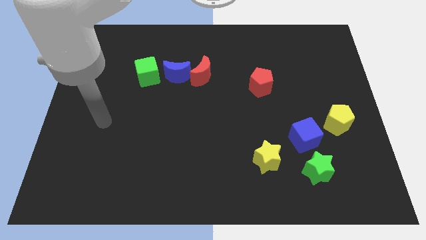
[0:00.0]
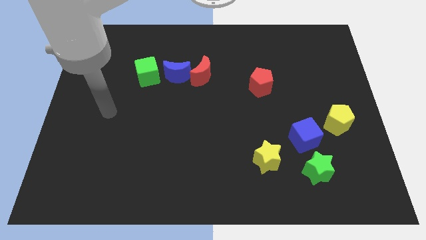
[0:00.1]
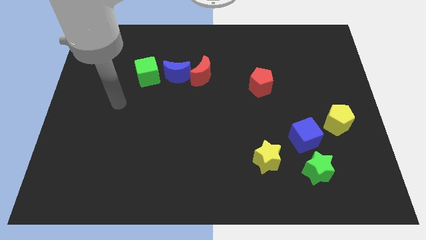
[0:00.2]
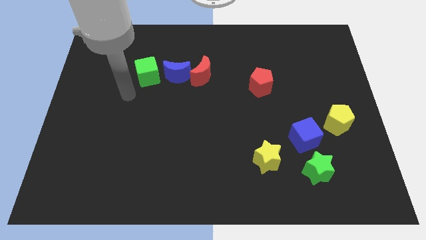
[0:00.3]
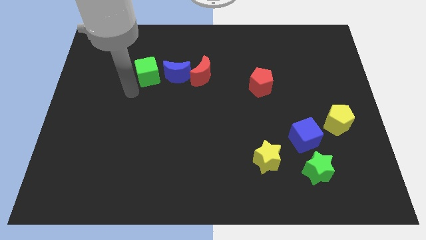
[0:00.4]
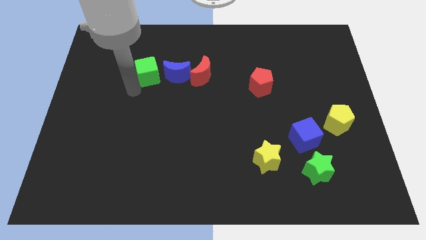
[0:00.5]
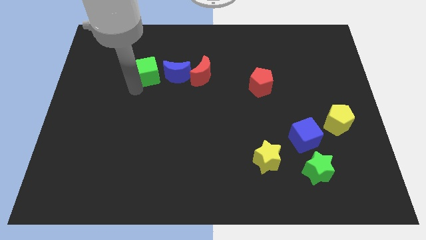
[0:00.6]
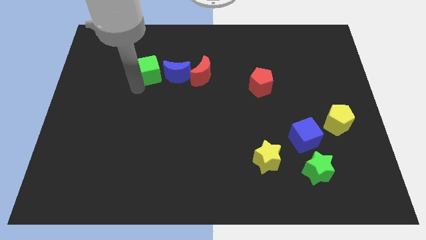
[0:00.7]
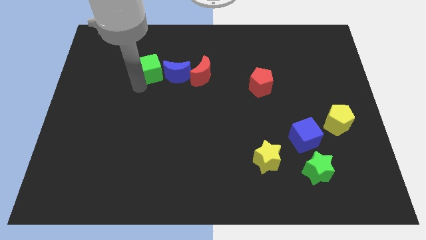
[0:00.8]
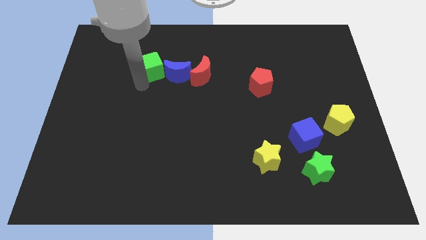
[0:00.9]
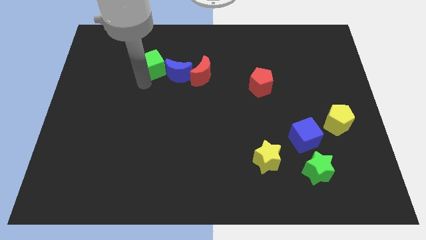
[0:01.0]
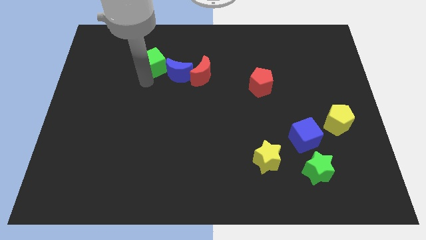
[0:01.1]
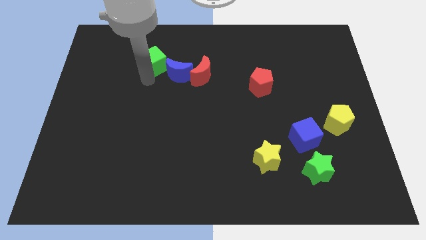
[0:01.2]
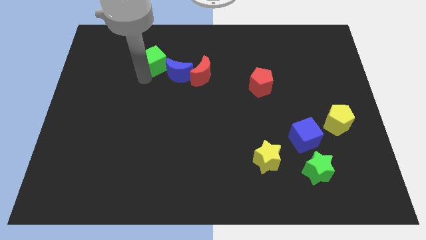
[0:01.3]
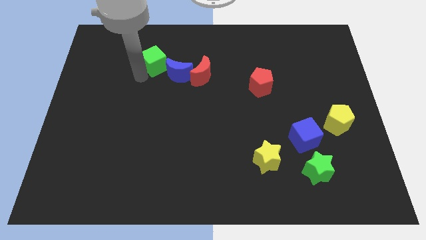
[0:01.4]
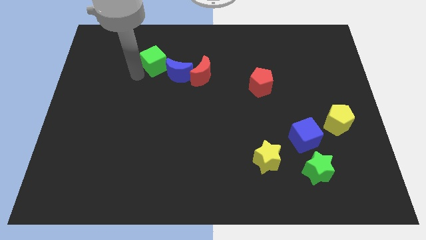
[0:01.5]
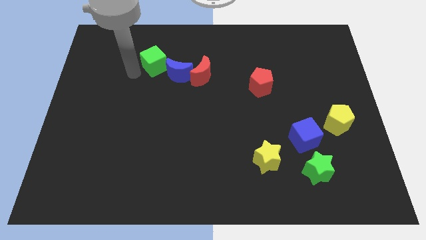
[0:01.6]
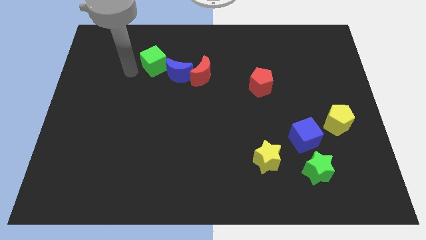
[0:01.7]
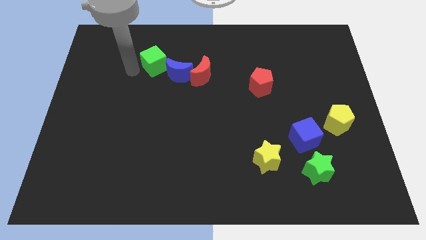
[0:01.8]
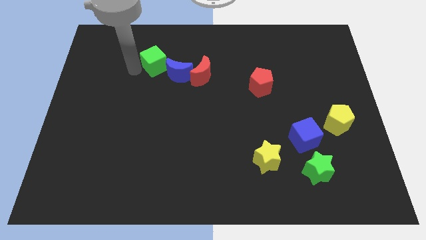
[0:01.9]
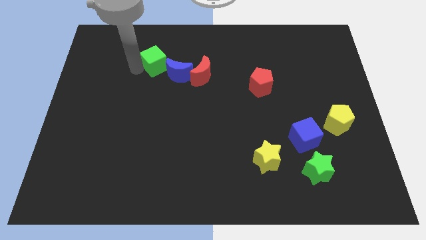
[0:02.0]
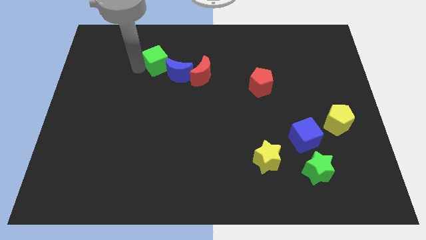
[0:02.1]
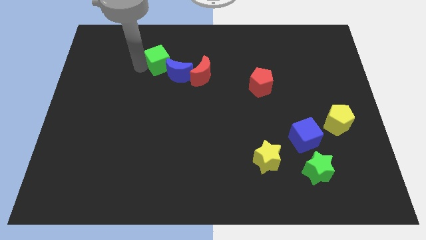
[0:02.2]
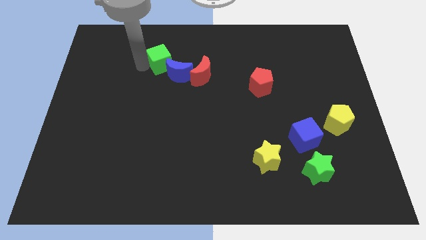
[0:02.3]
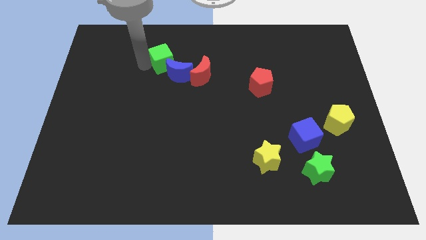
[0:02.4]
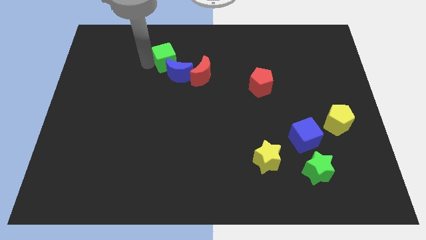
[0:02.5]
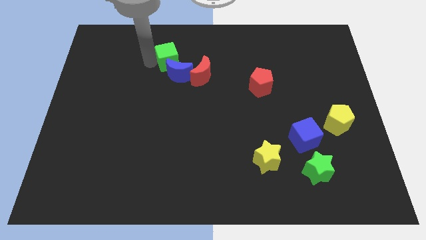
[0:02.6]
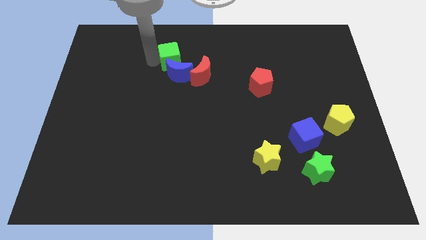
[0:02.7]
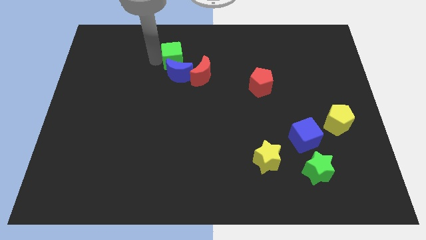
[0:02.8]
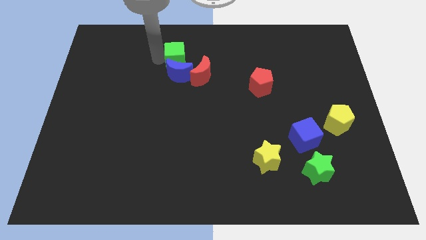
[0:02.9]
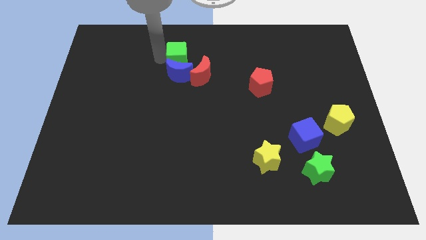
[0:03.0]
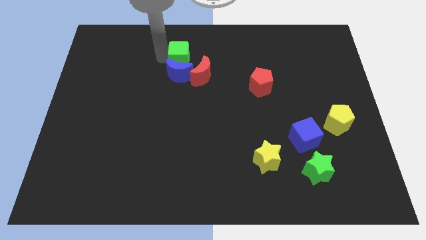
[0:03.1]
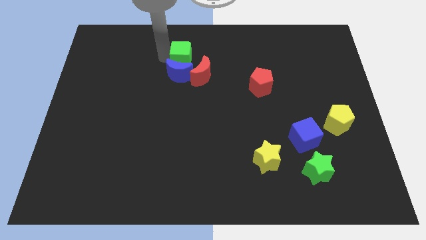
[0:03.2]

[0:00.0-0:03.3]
slightly slide the green cube right

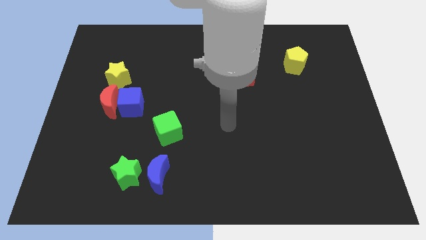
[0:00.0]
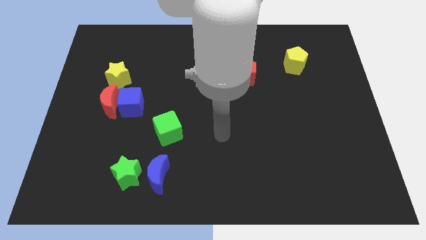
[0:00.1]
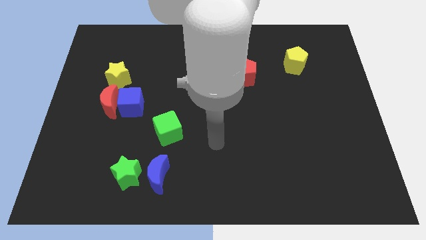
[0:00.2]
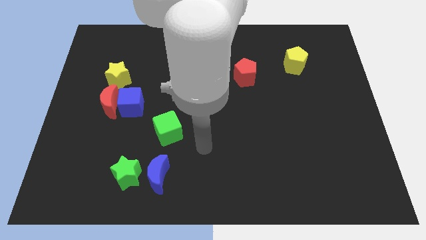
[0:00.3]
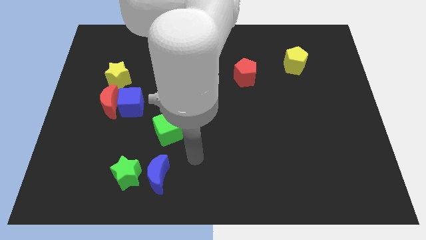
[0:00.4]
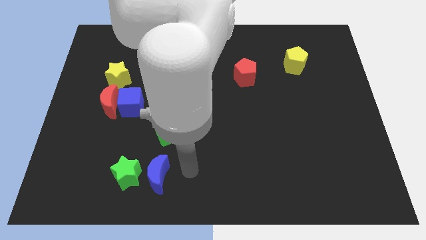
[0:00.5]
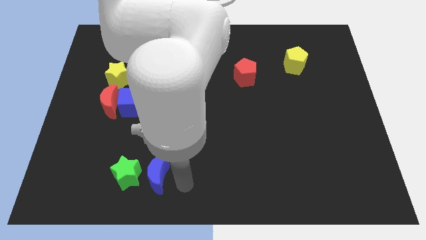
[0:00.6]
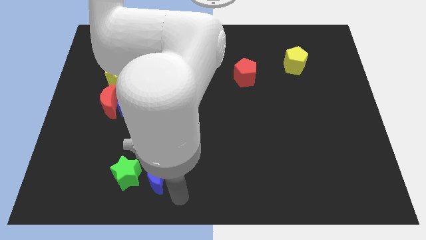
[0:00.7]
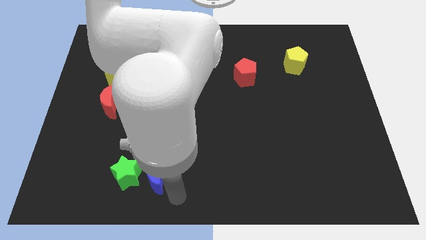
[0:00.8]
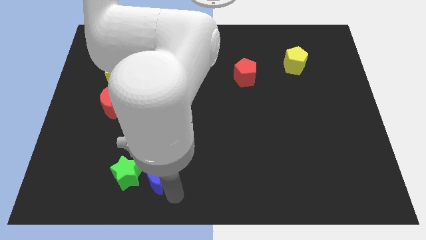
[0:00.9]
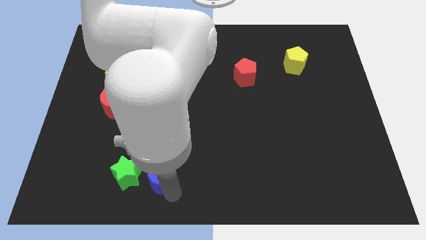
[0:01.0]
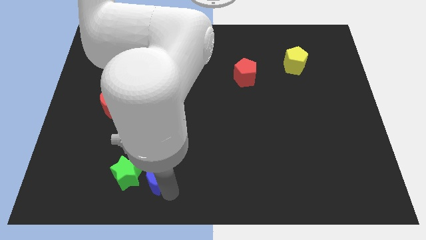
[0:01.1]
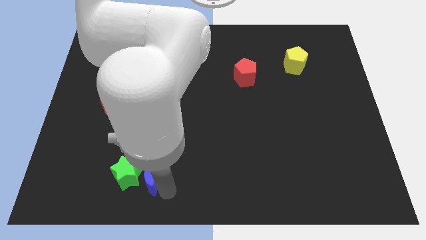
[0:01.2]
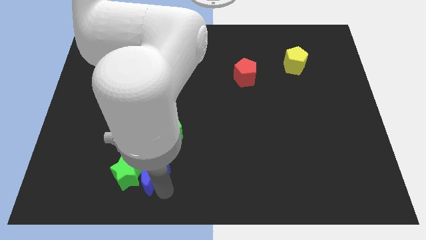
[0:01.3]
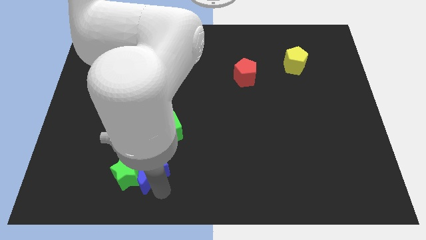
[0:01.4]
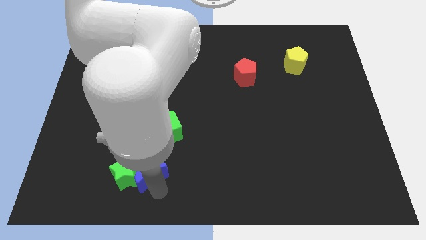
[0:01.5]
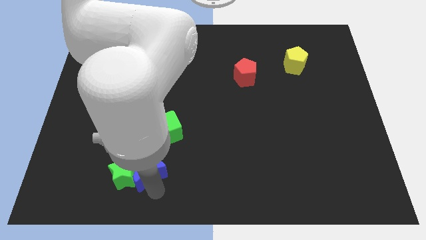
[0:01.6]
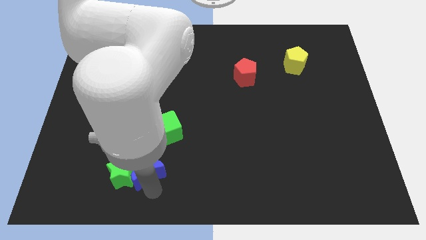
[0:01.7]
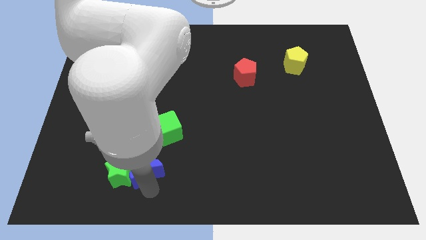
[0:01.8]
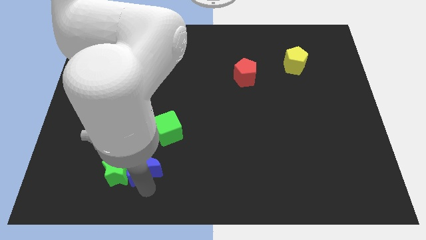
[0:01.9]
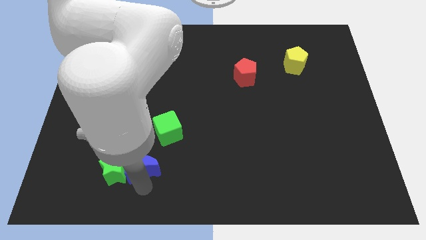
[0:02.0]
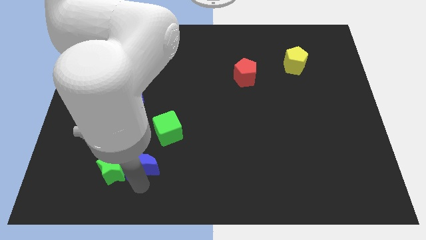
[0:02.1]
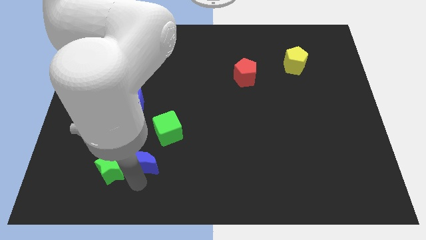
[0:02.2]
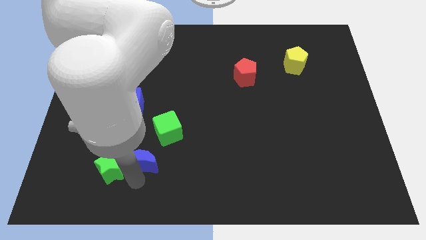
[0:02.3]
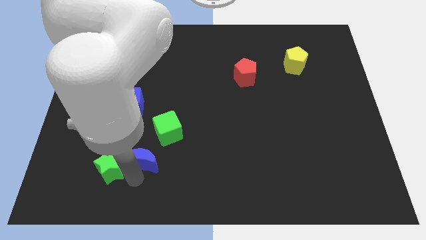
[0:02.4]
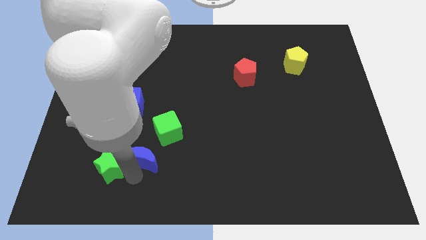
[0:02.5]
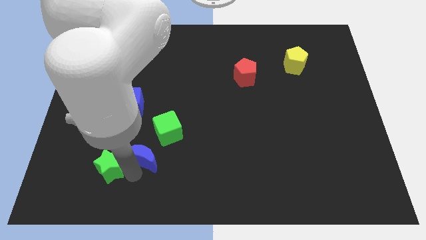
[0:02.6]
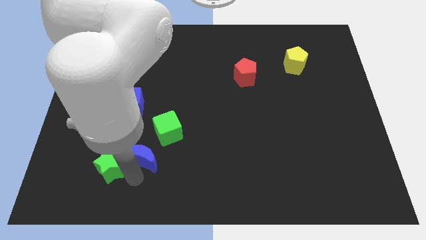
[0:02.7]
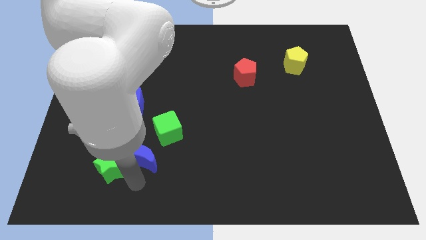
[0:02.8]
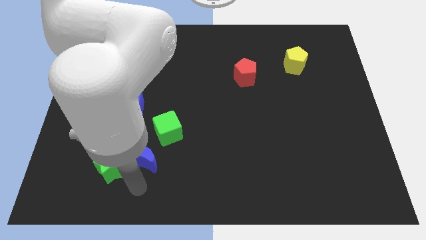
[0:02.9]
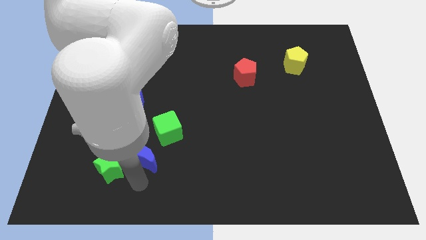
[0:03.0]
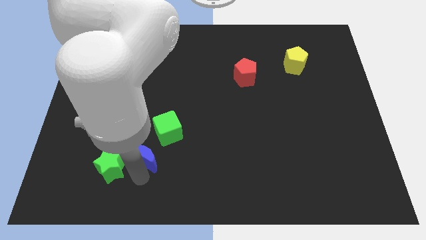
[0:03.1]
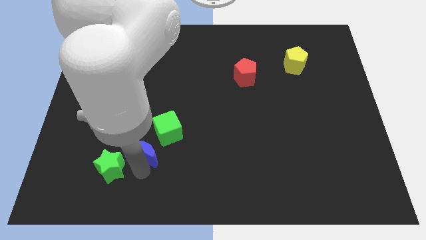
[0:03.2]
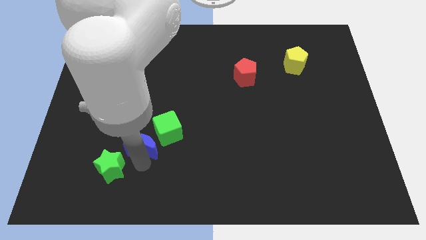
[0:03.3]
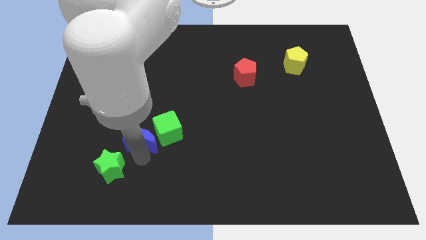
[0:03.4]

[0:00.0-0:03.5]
slightly move the blue moon up

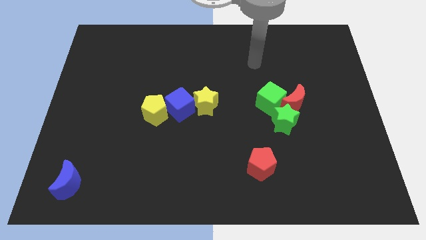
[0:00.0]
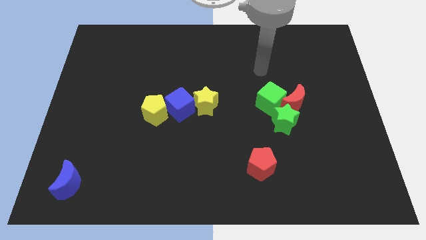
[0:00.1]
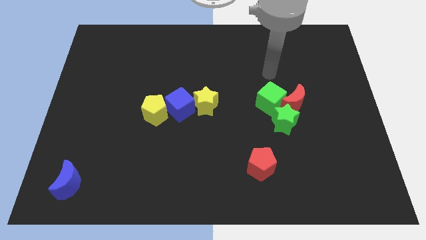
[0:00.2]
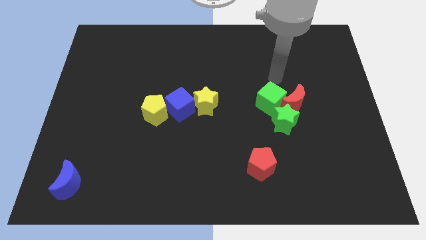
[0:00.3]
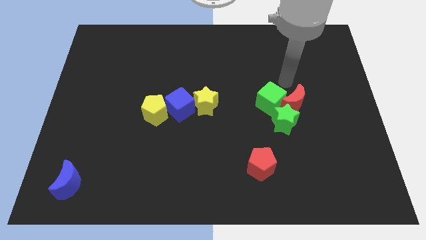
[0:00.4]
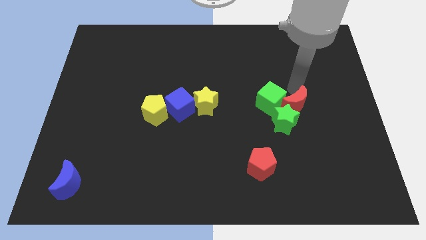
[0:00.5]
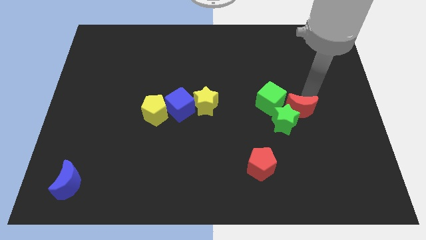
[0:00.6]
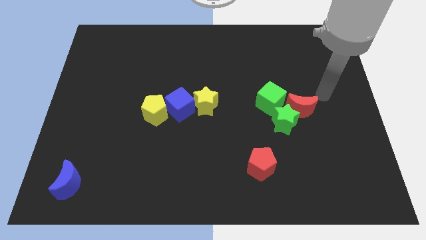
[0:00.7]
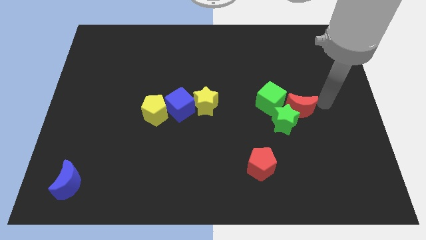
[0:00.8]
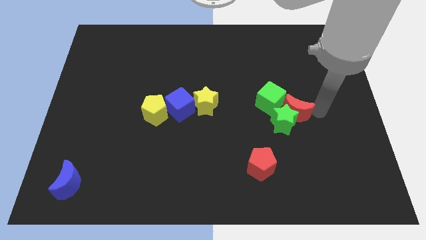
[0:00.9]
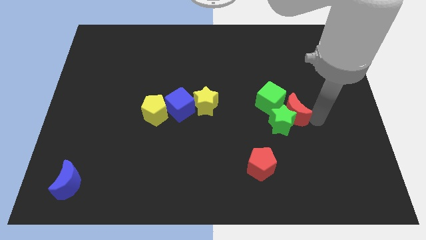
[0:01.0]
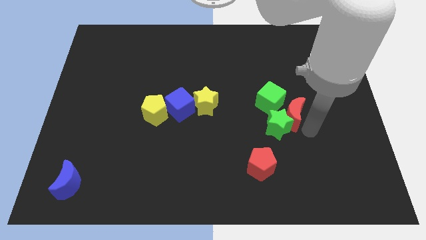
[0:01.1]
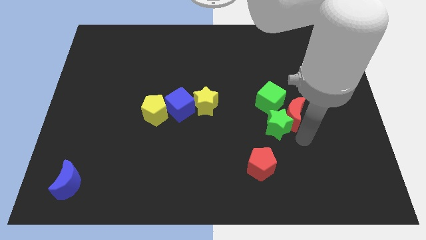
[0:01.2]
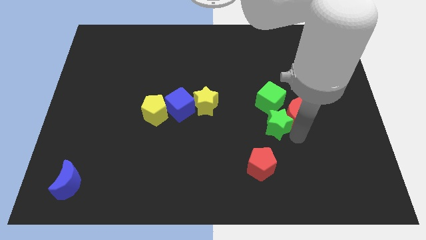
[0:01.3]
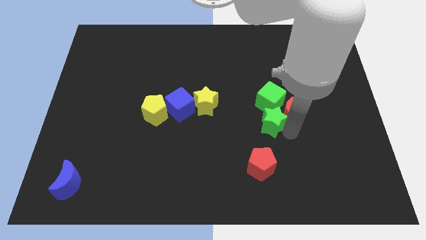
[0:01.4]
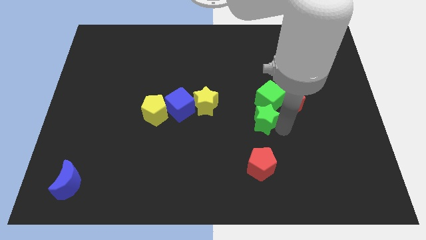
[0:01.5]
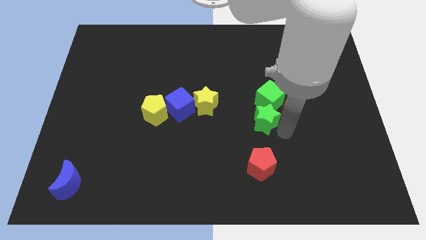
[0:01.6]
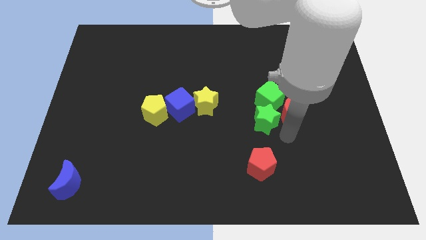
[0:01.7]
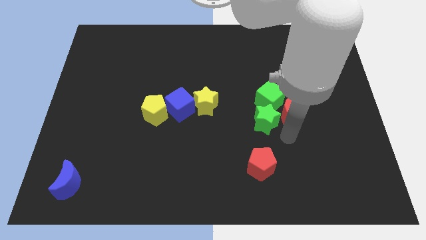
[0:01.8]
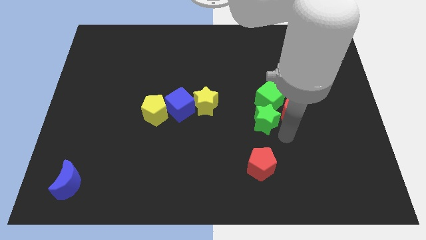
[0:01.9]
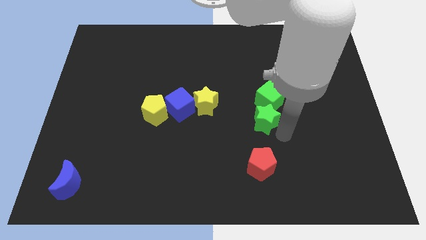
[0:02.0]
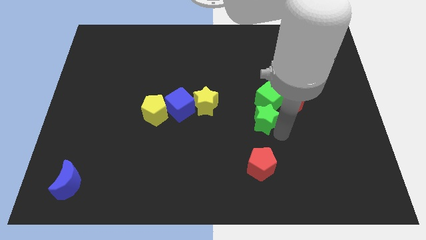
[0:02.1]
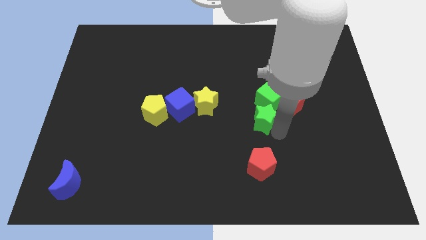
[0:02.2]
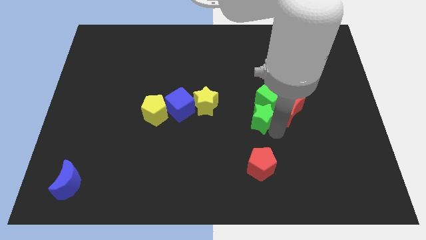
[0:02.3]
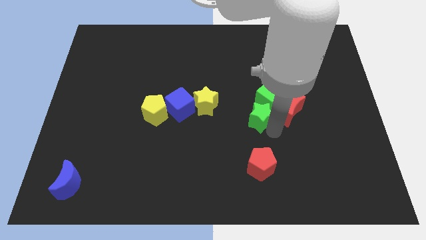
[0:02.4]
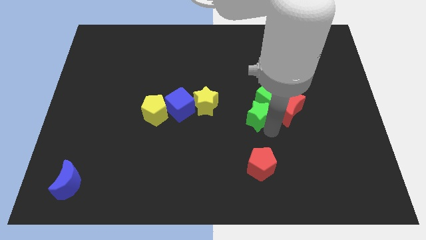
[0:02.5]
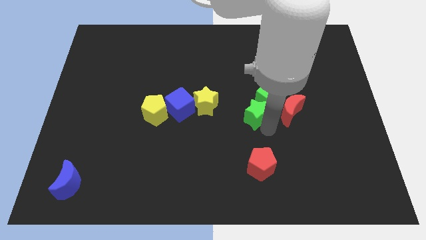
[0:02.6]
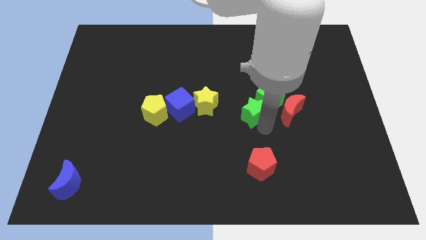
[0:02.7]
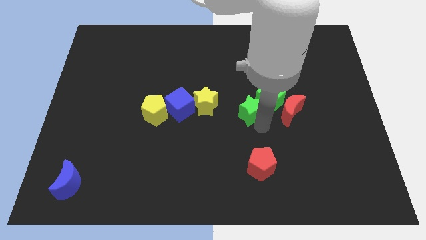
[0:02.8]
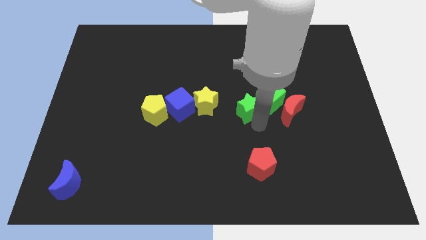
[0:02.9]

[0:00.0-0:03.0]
slide the green star slightly upwards and then to the left
